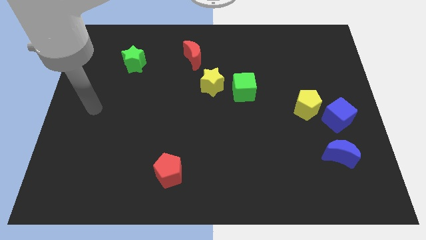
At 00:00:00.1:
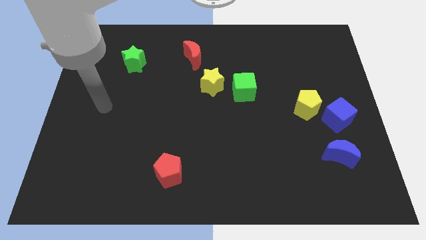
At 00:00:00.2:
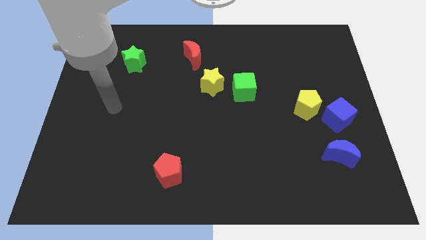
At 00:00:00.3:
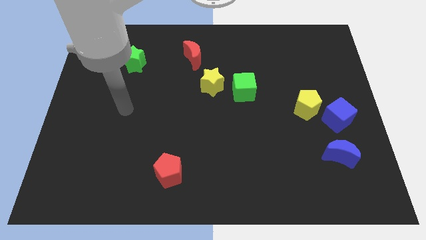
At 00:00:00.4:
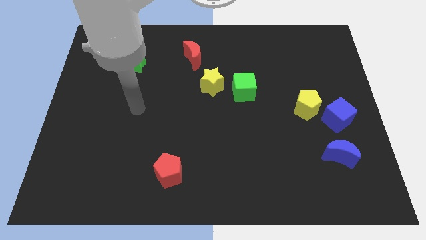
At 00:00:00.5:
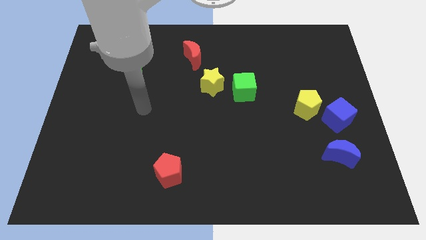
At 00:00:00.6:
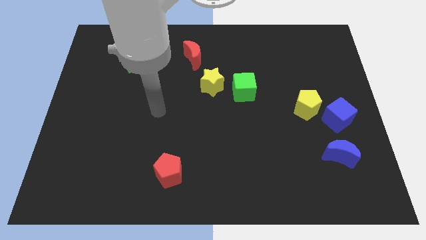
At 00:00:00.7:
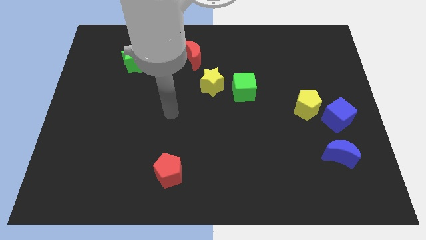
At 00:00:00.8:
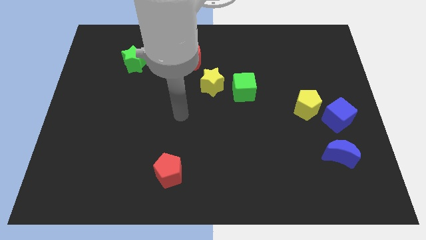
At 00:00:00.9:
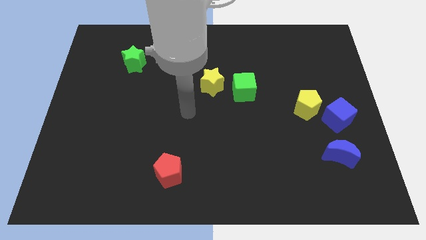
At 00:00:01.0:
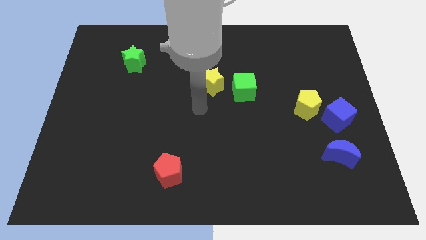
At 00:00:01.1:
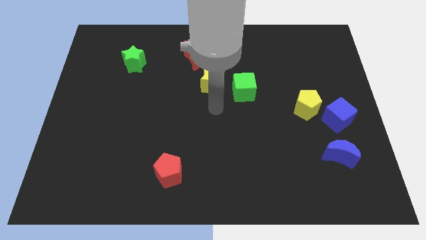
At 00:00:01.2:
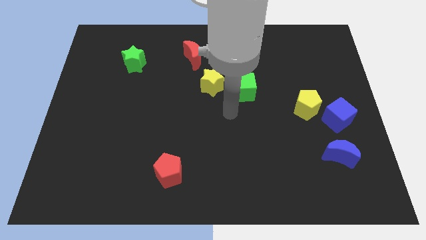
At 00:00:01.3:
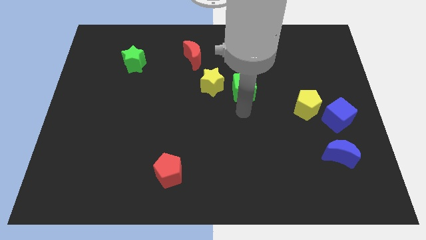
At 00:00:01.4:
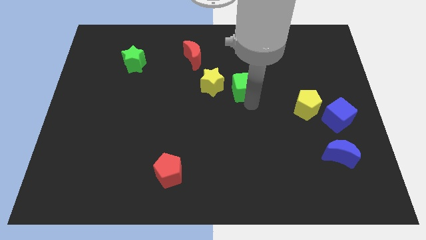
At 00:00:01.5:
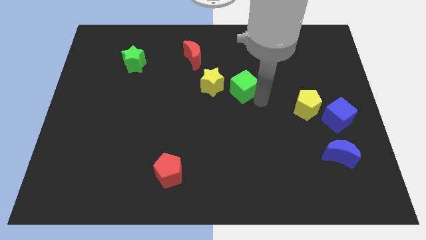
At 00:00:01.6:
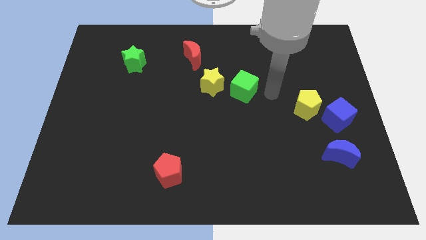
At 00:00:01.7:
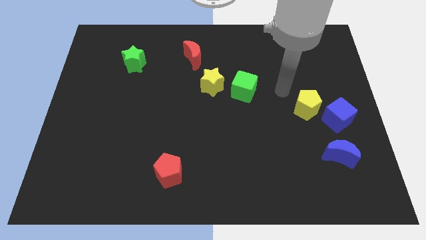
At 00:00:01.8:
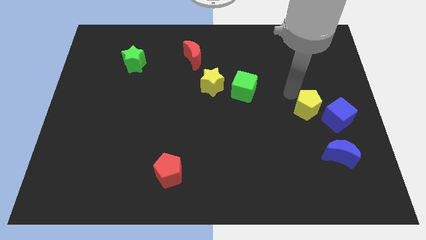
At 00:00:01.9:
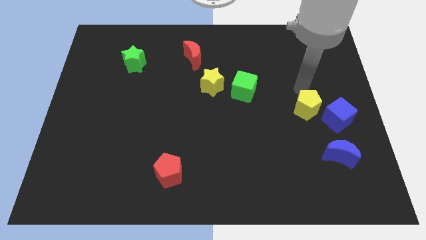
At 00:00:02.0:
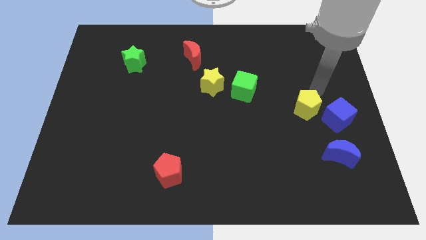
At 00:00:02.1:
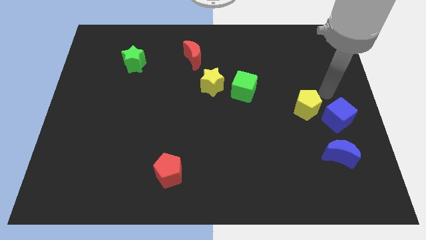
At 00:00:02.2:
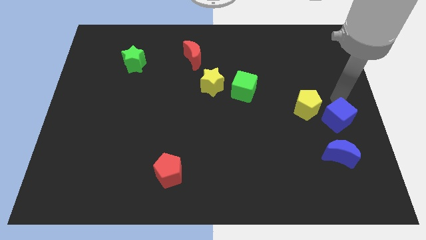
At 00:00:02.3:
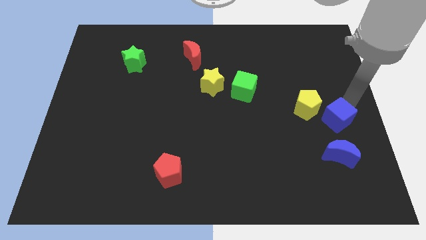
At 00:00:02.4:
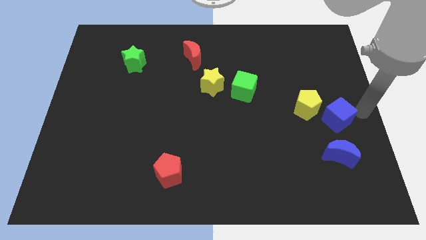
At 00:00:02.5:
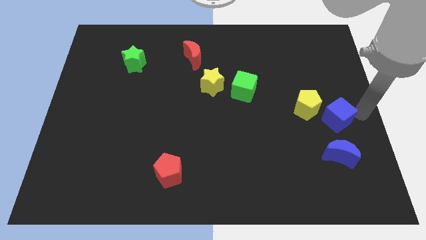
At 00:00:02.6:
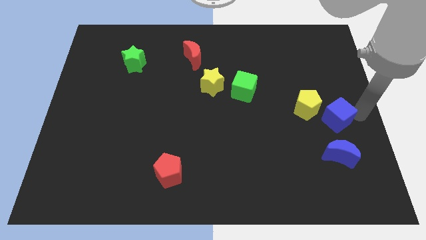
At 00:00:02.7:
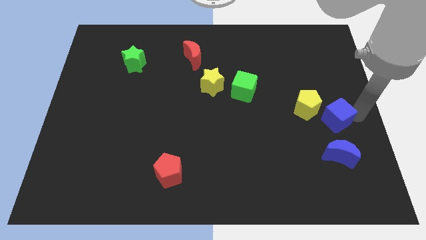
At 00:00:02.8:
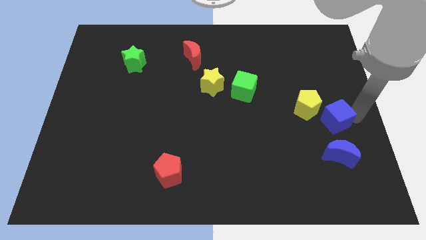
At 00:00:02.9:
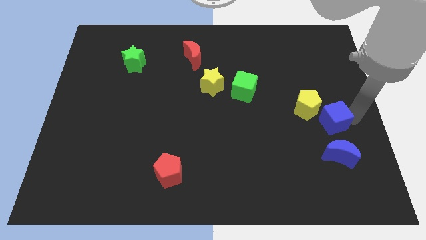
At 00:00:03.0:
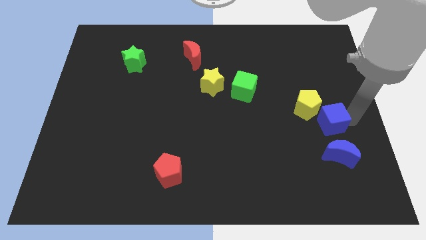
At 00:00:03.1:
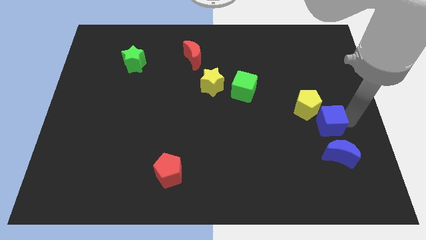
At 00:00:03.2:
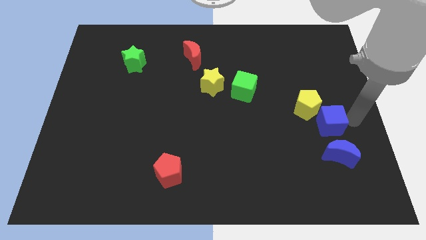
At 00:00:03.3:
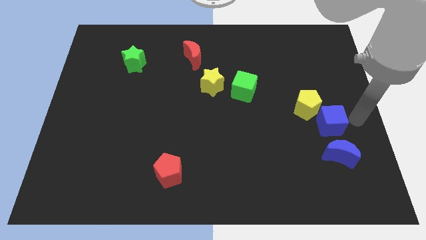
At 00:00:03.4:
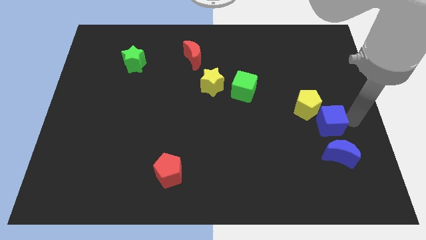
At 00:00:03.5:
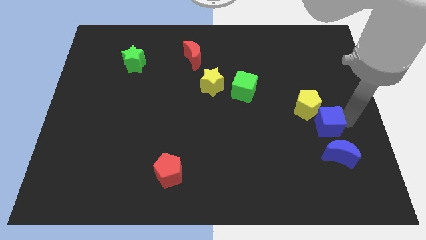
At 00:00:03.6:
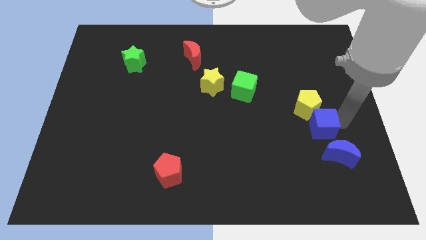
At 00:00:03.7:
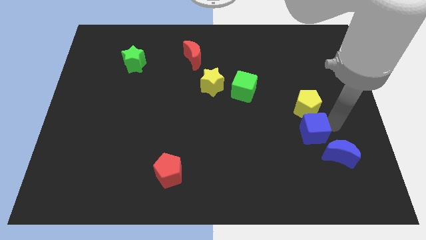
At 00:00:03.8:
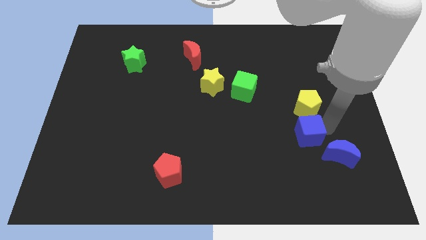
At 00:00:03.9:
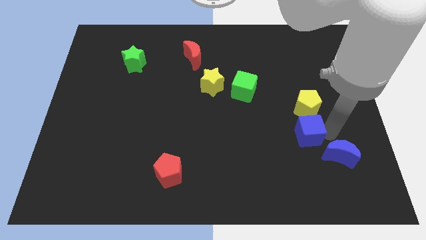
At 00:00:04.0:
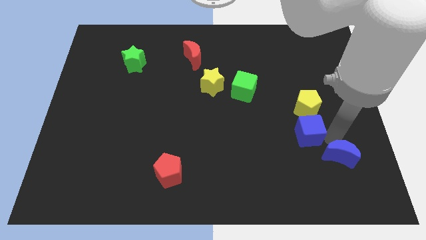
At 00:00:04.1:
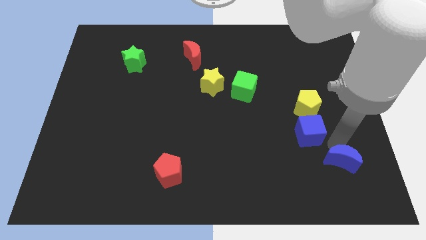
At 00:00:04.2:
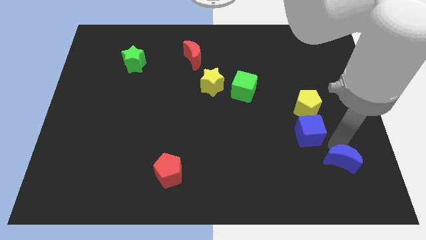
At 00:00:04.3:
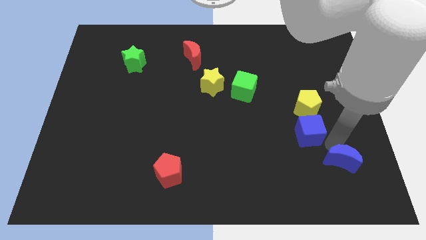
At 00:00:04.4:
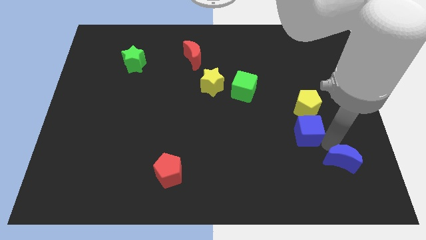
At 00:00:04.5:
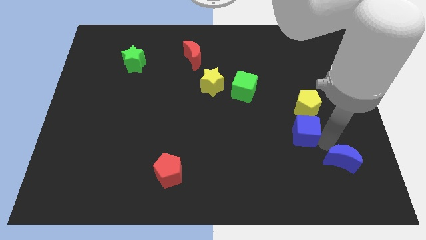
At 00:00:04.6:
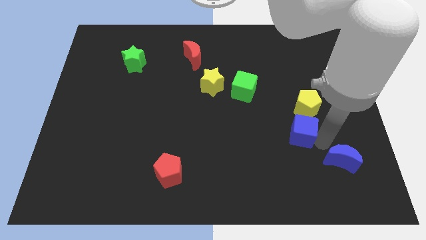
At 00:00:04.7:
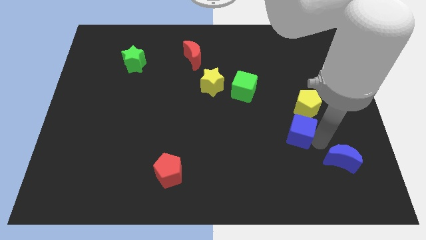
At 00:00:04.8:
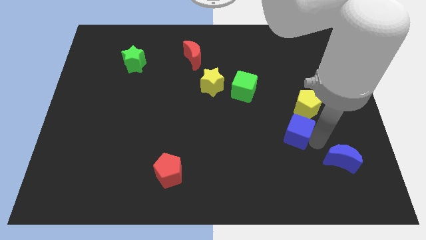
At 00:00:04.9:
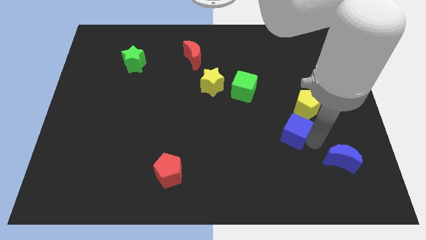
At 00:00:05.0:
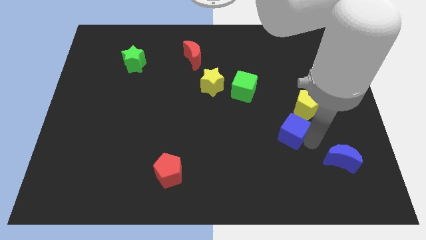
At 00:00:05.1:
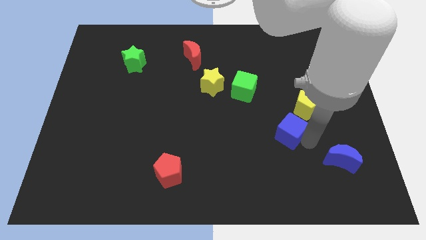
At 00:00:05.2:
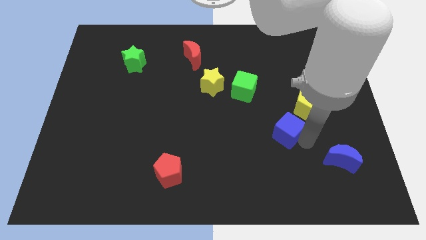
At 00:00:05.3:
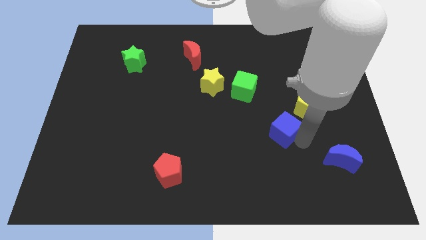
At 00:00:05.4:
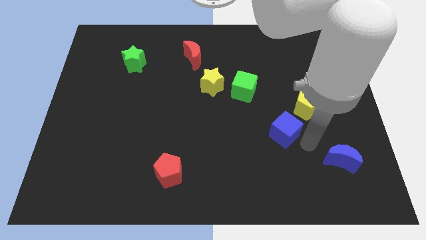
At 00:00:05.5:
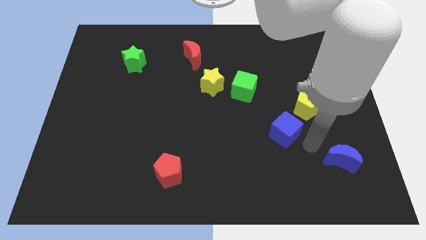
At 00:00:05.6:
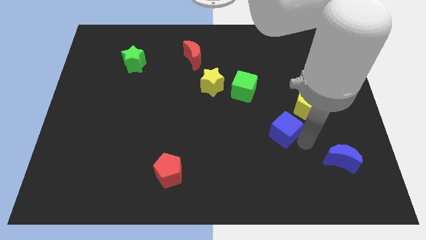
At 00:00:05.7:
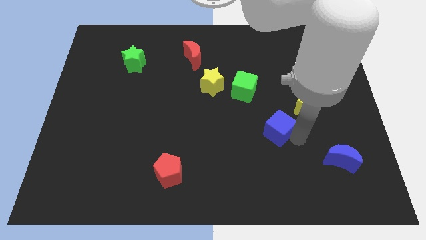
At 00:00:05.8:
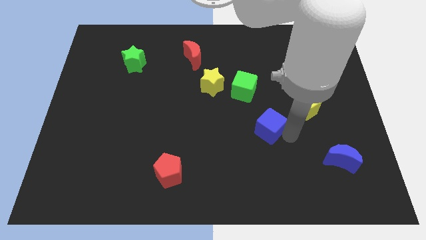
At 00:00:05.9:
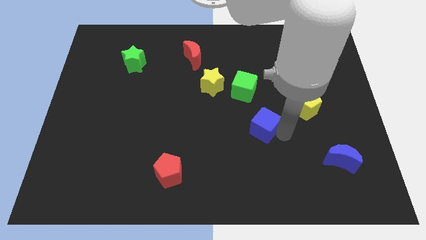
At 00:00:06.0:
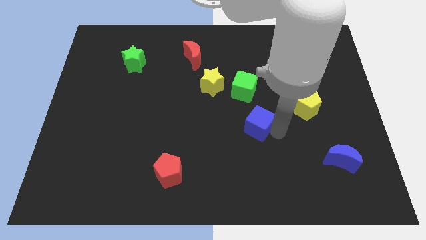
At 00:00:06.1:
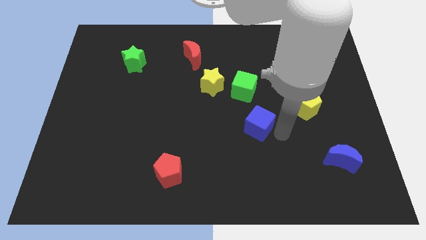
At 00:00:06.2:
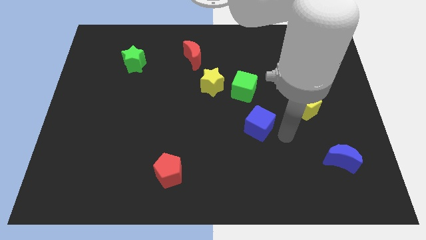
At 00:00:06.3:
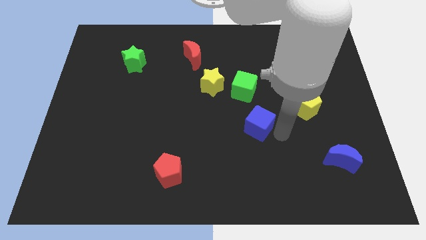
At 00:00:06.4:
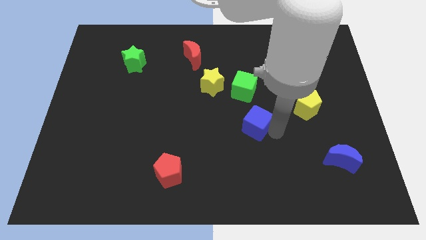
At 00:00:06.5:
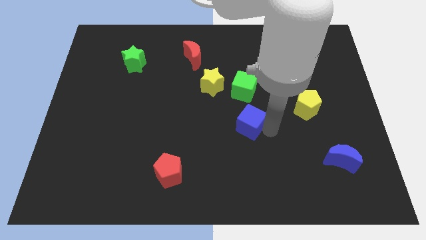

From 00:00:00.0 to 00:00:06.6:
move the blue cube left

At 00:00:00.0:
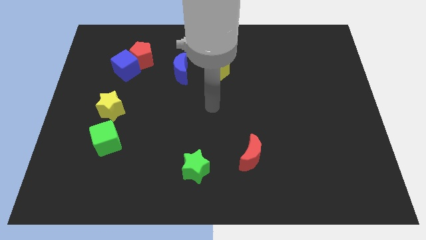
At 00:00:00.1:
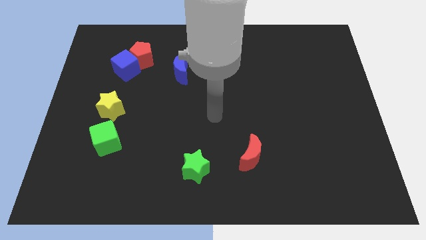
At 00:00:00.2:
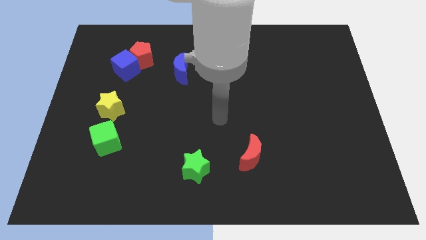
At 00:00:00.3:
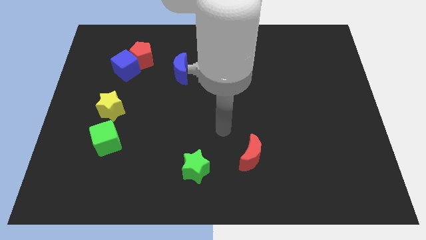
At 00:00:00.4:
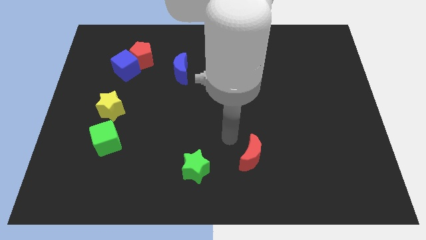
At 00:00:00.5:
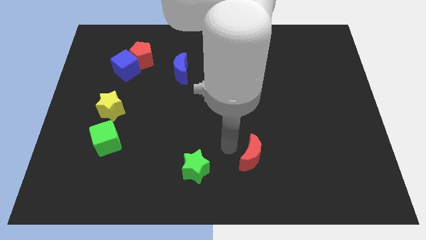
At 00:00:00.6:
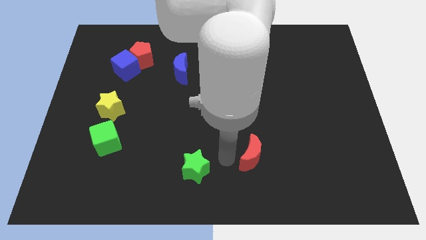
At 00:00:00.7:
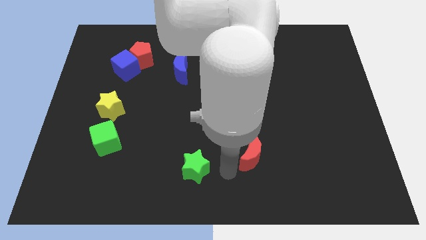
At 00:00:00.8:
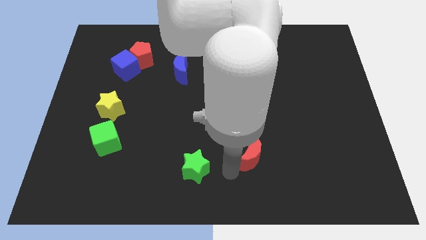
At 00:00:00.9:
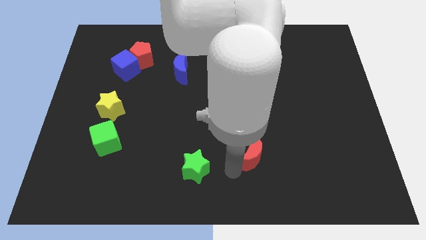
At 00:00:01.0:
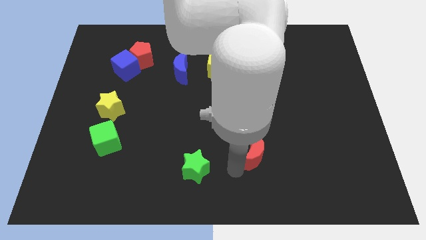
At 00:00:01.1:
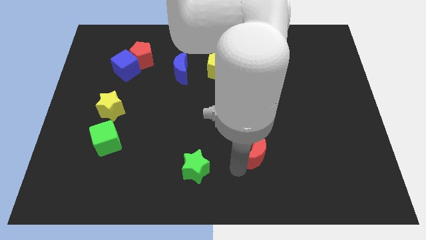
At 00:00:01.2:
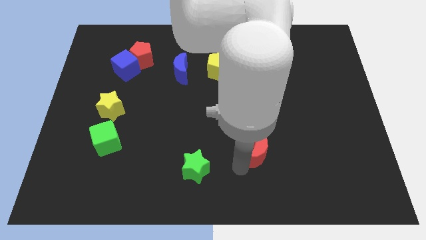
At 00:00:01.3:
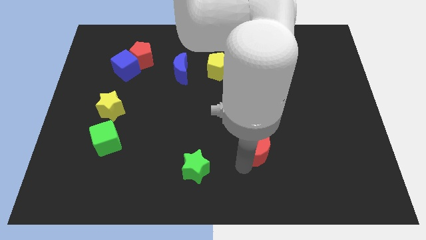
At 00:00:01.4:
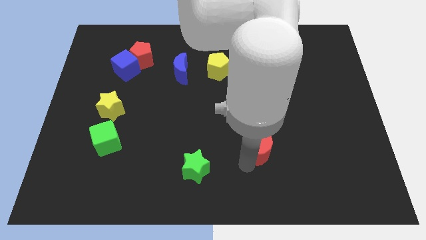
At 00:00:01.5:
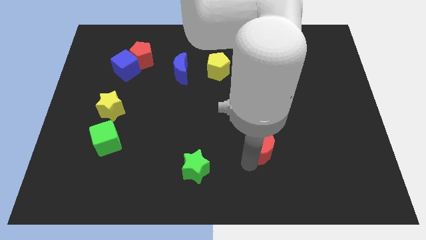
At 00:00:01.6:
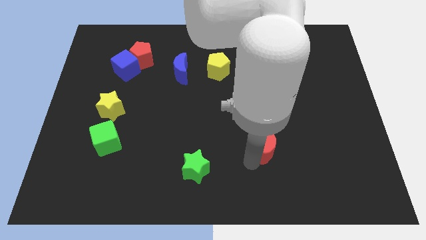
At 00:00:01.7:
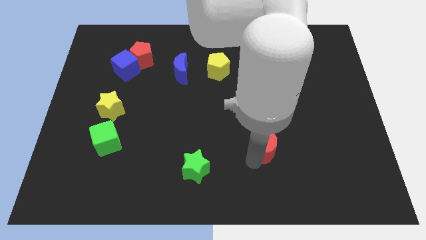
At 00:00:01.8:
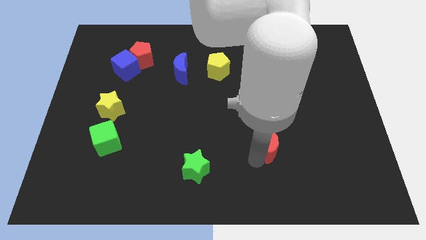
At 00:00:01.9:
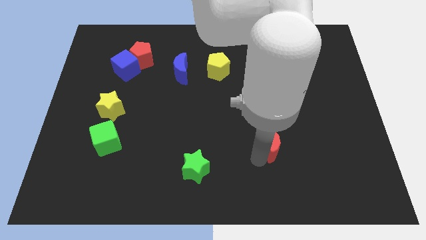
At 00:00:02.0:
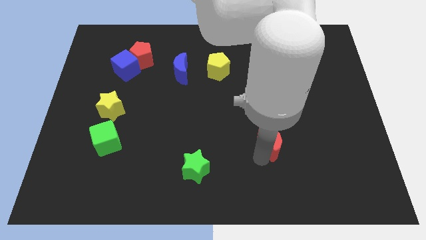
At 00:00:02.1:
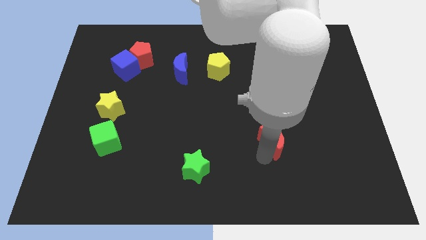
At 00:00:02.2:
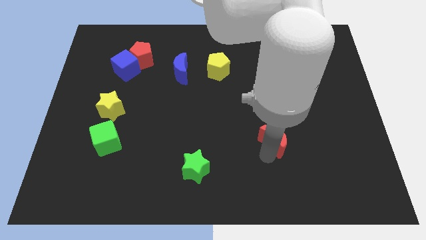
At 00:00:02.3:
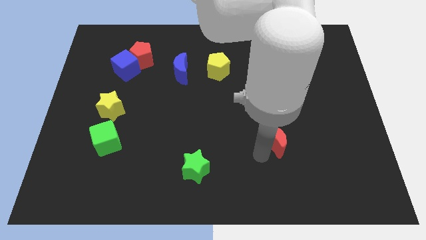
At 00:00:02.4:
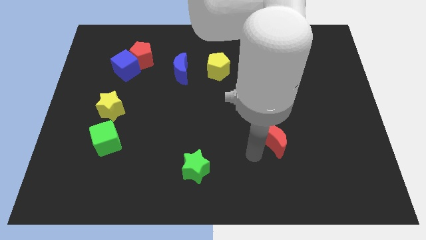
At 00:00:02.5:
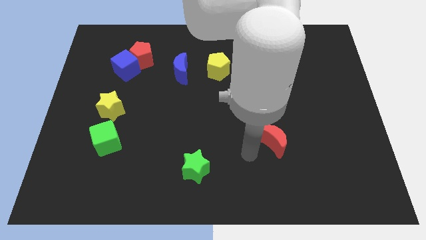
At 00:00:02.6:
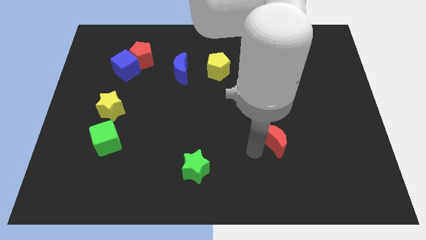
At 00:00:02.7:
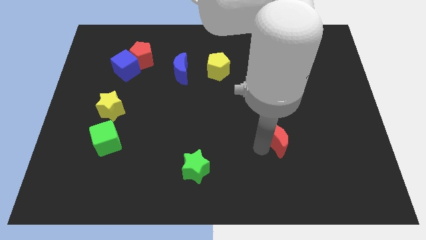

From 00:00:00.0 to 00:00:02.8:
push the red moon a bit upwards and to the right diagonally
